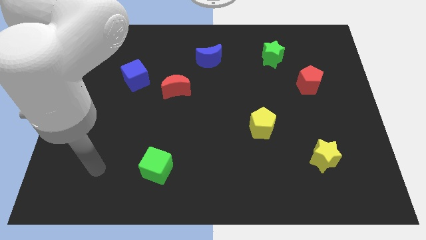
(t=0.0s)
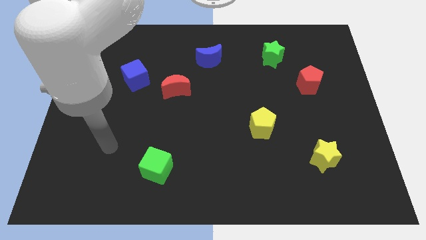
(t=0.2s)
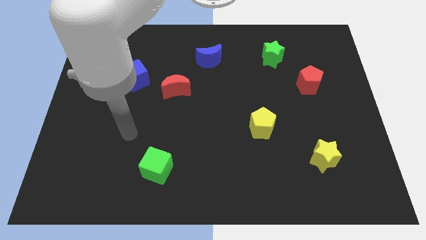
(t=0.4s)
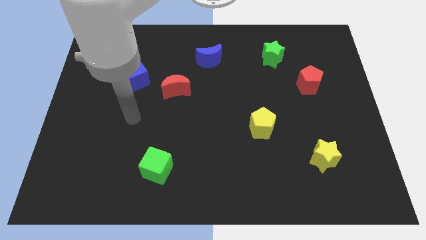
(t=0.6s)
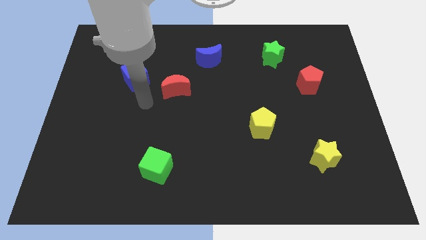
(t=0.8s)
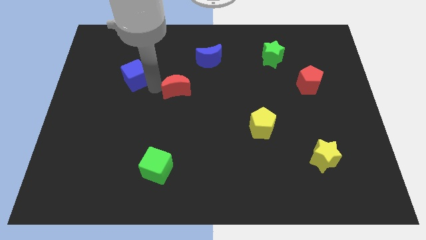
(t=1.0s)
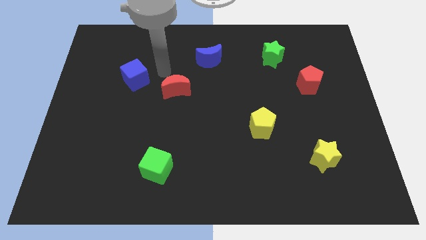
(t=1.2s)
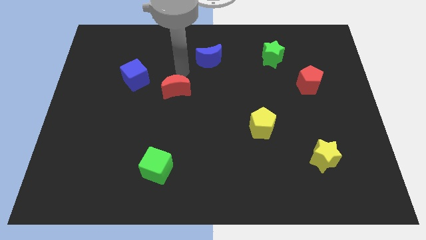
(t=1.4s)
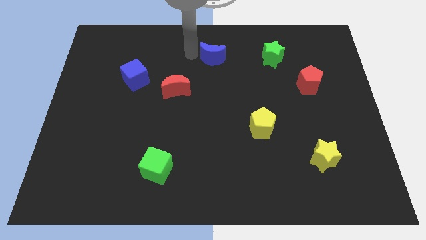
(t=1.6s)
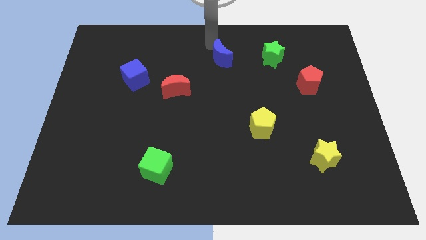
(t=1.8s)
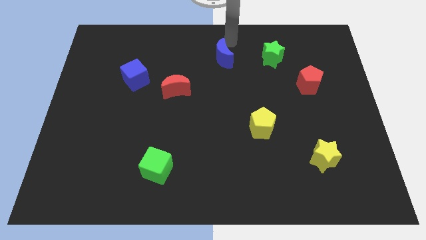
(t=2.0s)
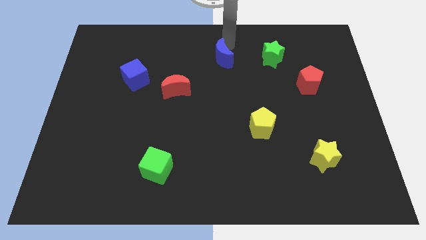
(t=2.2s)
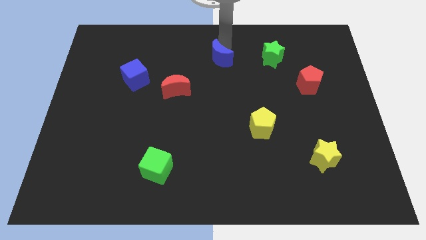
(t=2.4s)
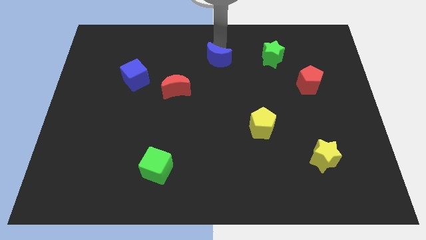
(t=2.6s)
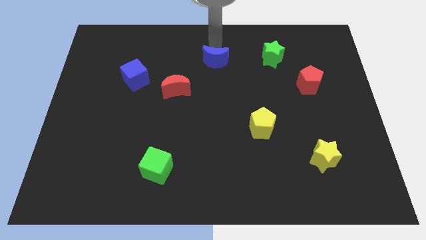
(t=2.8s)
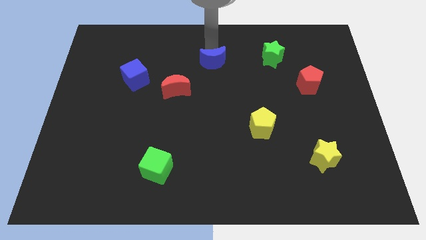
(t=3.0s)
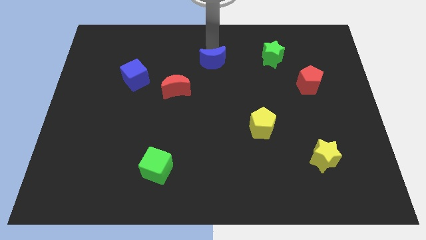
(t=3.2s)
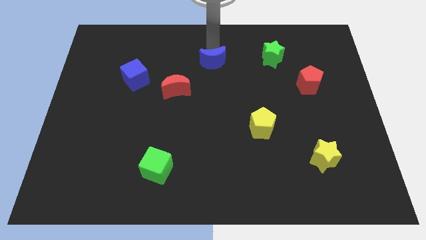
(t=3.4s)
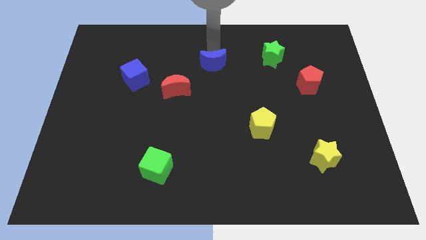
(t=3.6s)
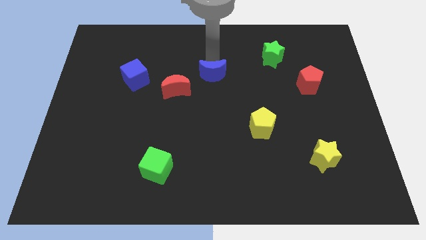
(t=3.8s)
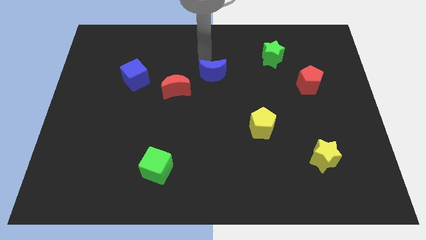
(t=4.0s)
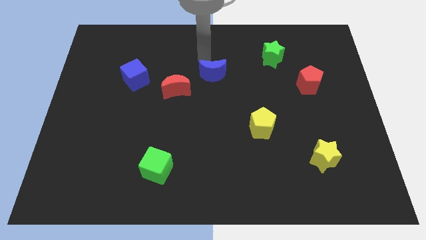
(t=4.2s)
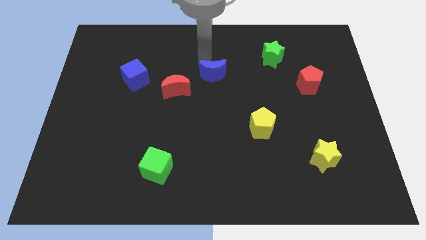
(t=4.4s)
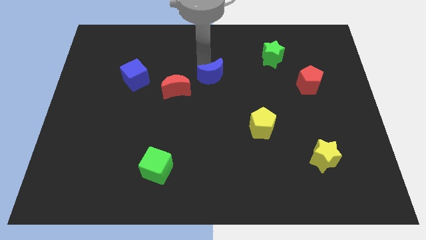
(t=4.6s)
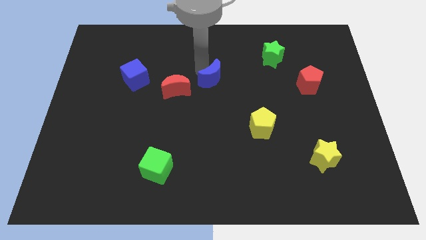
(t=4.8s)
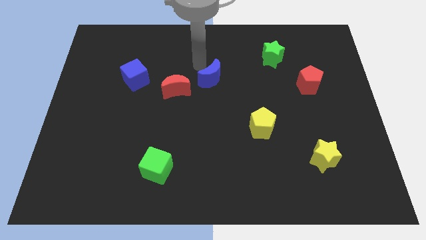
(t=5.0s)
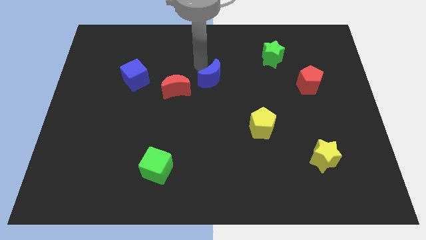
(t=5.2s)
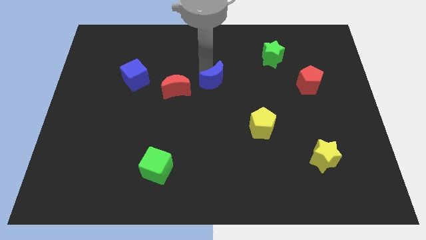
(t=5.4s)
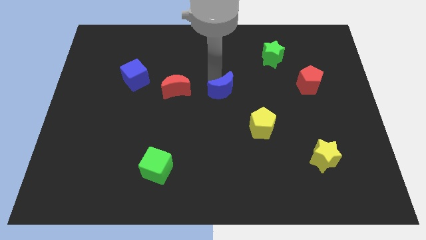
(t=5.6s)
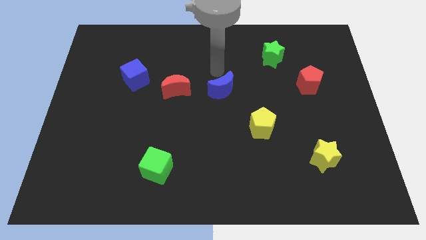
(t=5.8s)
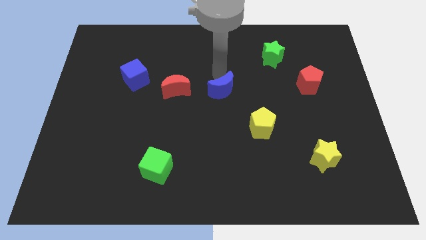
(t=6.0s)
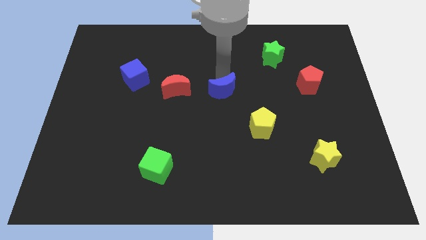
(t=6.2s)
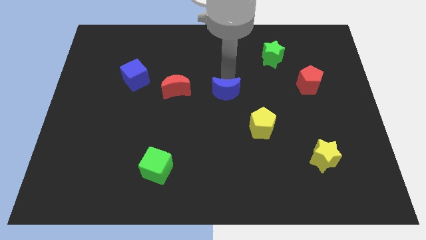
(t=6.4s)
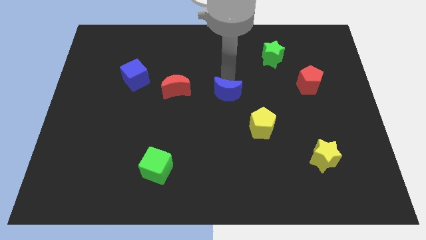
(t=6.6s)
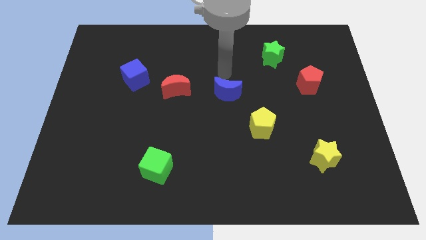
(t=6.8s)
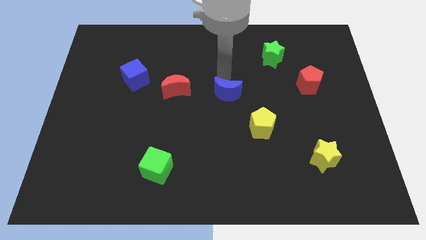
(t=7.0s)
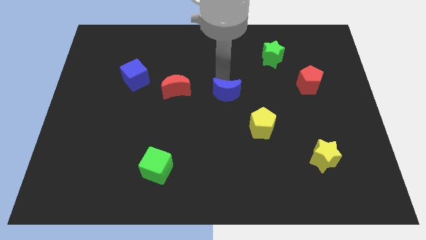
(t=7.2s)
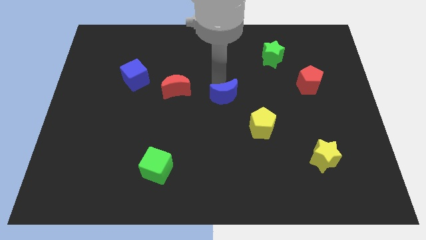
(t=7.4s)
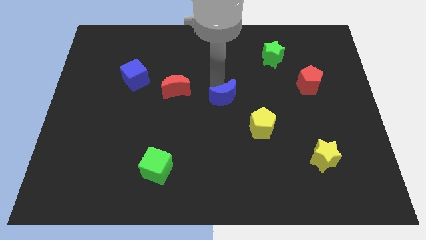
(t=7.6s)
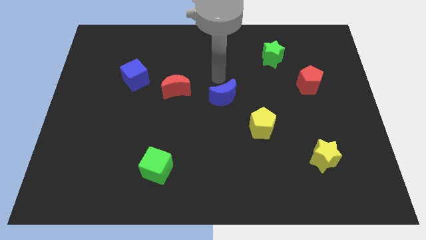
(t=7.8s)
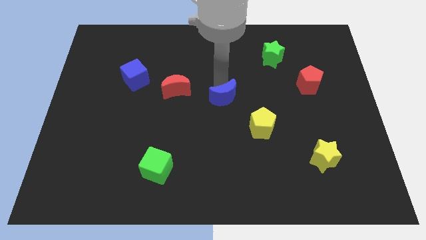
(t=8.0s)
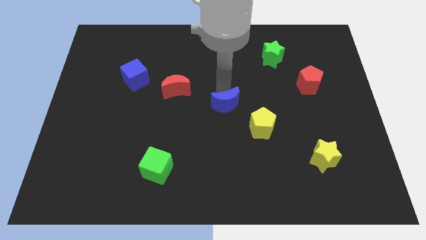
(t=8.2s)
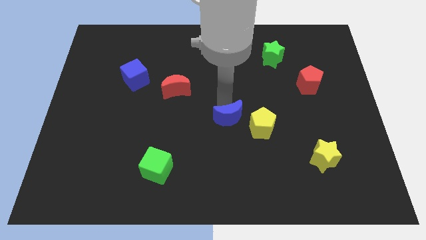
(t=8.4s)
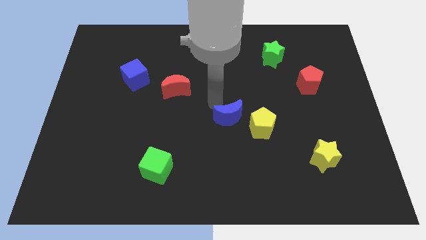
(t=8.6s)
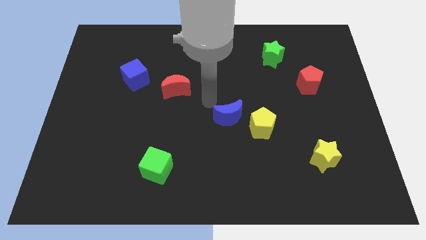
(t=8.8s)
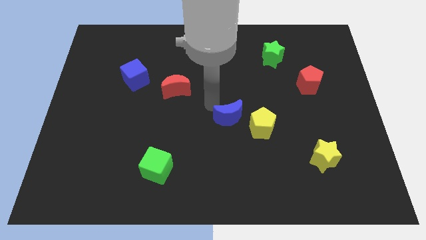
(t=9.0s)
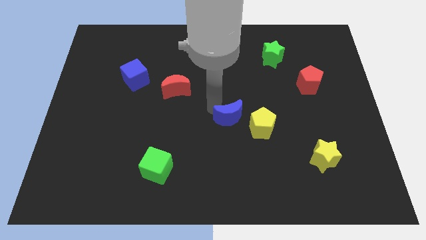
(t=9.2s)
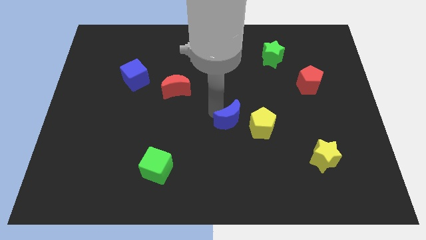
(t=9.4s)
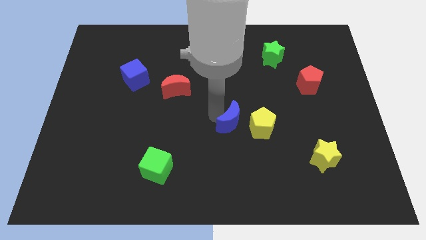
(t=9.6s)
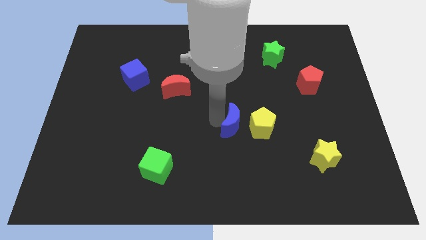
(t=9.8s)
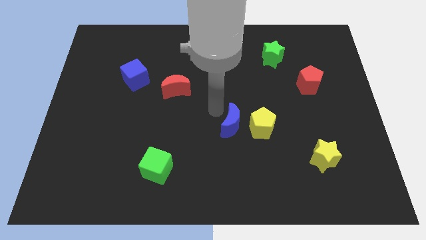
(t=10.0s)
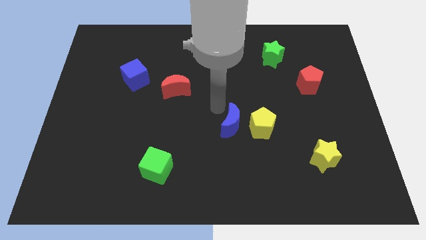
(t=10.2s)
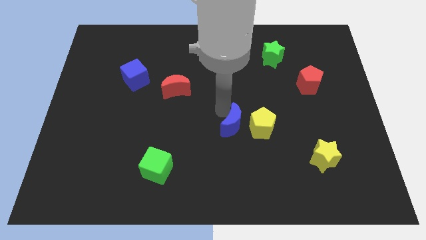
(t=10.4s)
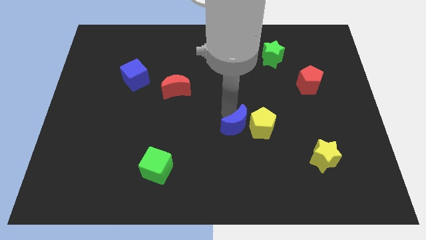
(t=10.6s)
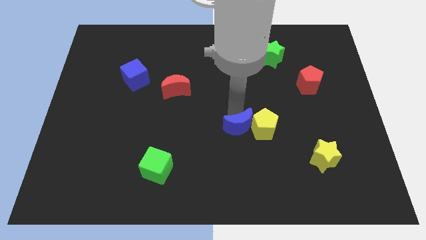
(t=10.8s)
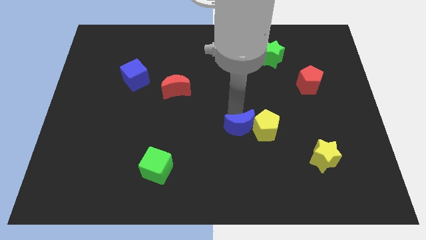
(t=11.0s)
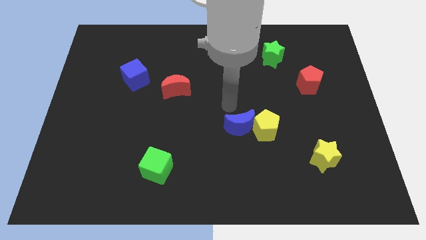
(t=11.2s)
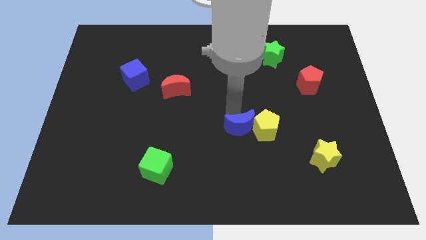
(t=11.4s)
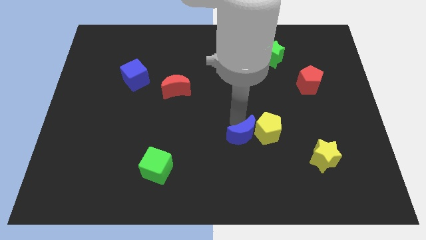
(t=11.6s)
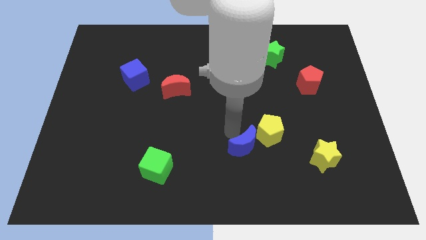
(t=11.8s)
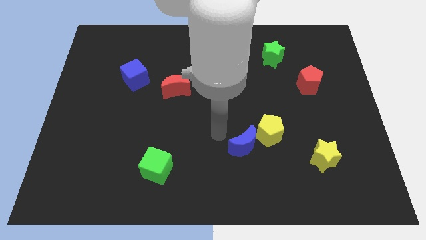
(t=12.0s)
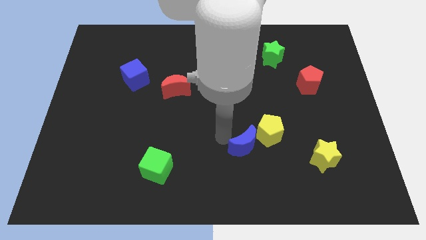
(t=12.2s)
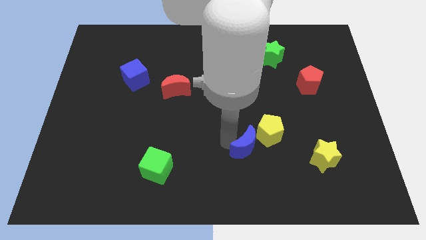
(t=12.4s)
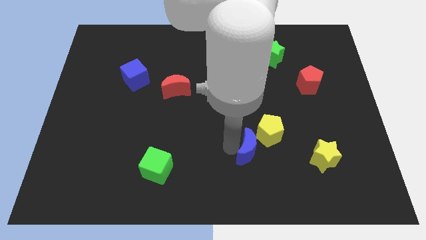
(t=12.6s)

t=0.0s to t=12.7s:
push the blue moon to the left side of the yellow star
